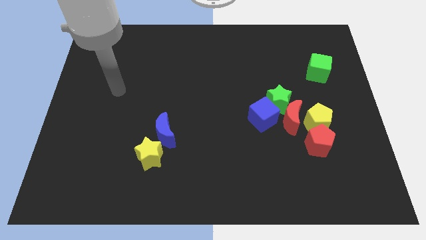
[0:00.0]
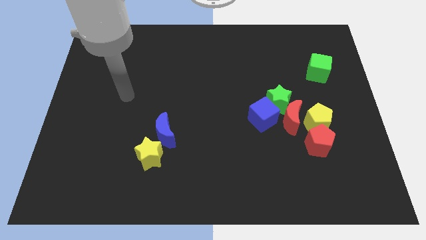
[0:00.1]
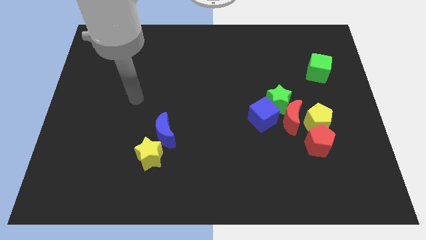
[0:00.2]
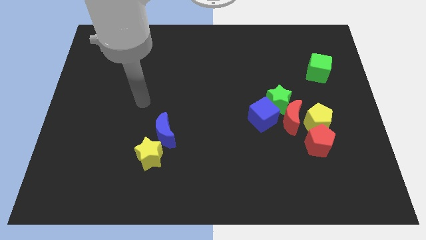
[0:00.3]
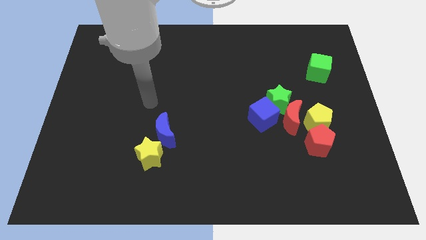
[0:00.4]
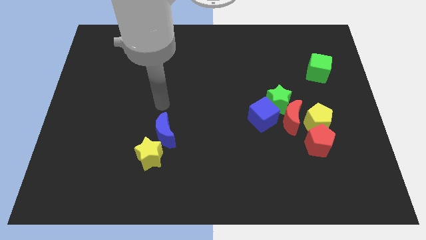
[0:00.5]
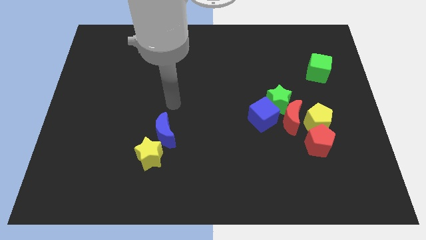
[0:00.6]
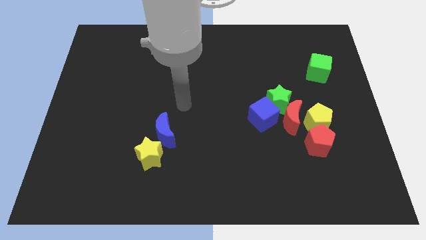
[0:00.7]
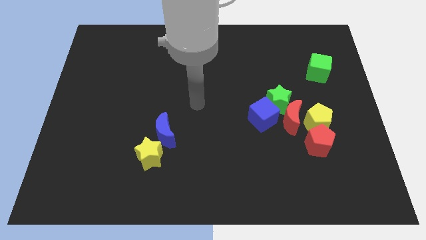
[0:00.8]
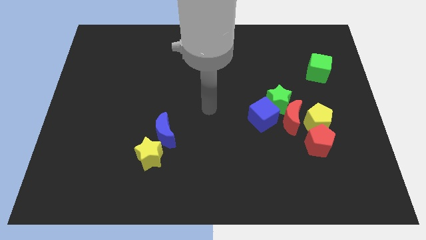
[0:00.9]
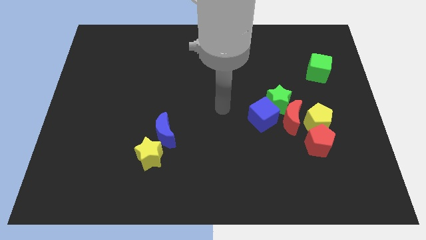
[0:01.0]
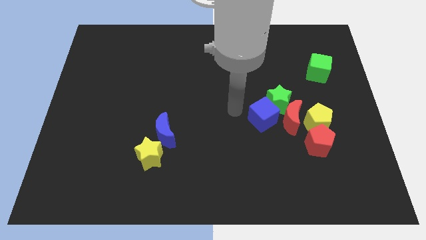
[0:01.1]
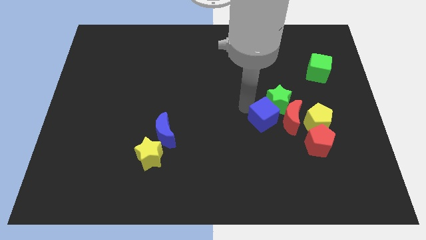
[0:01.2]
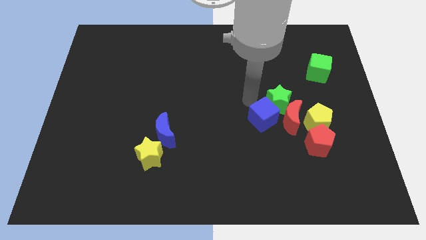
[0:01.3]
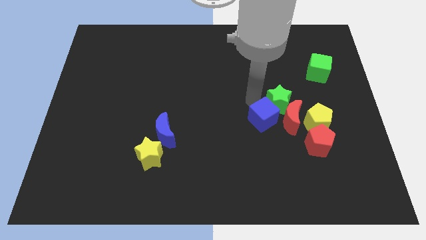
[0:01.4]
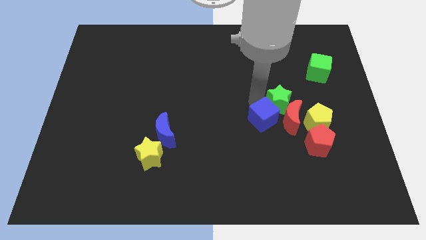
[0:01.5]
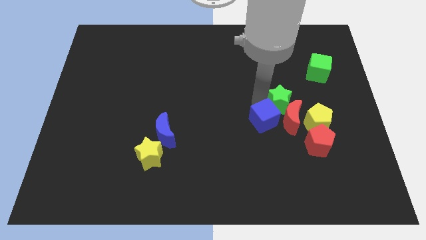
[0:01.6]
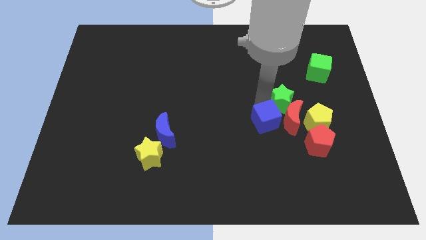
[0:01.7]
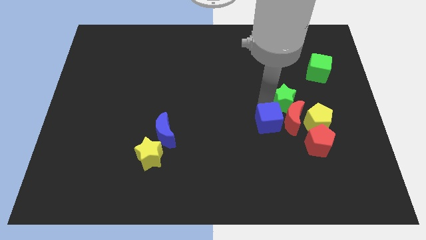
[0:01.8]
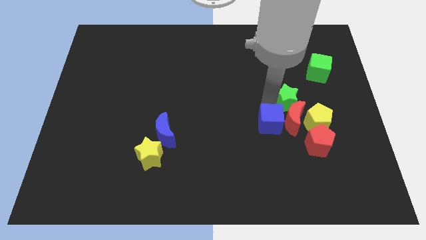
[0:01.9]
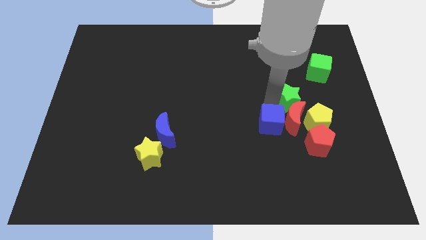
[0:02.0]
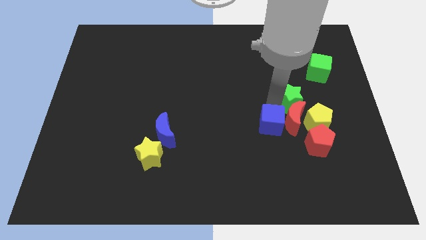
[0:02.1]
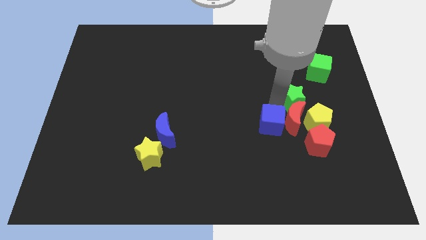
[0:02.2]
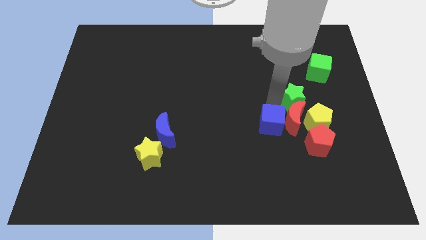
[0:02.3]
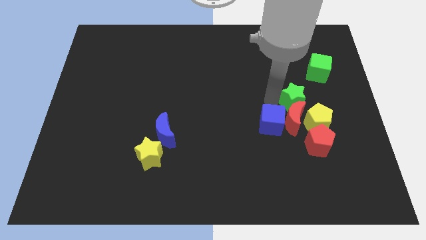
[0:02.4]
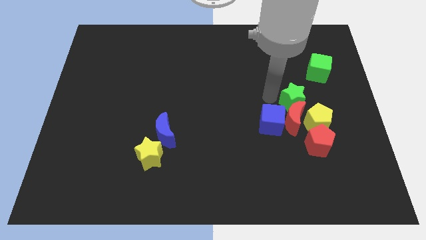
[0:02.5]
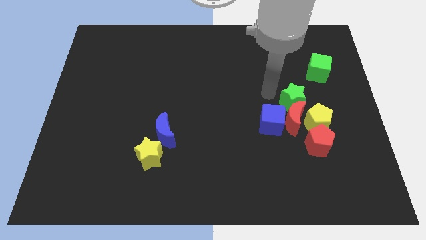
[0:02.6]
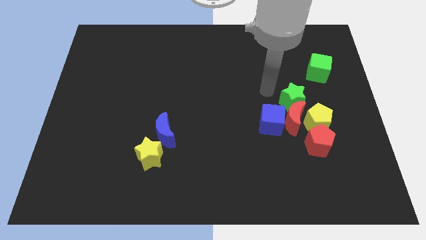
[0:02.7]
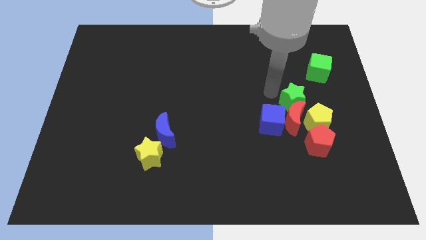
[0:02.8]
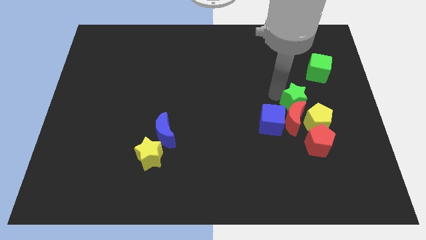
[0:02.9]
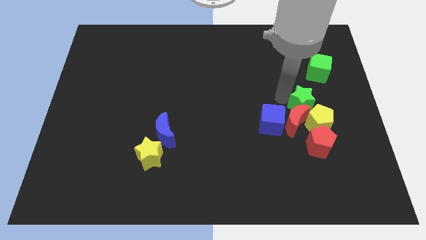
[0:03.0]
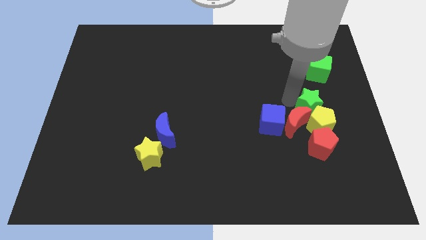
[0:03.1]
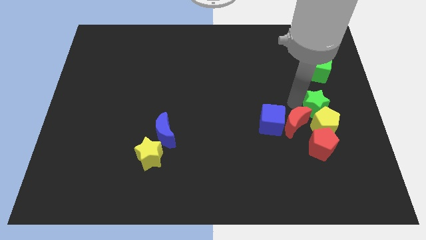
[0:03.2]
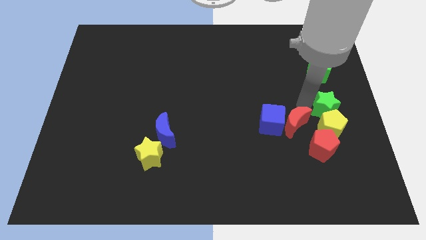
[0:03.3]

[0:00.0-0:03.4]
push the green star diagonally downwards and right slightly

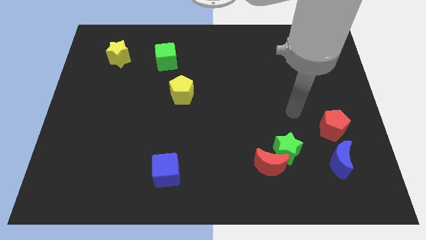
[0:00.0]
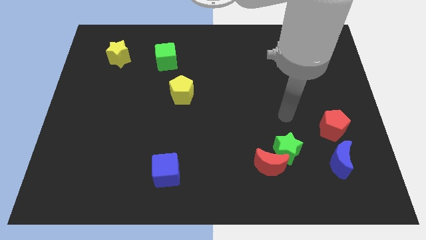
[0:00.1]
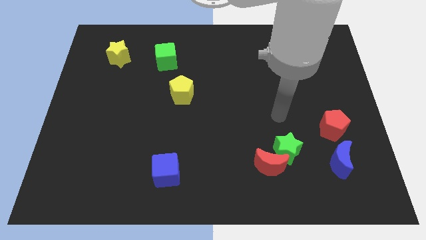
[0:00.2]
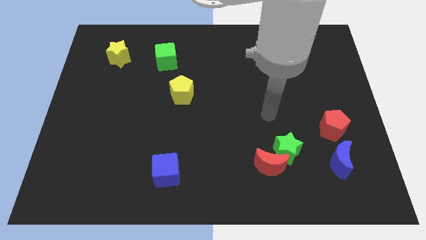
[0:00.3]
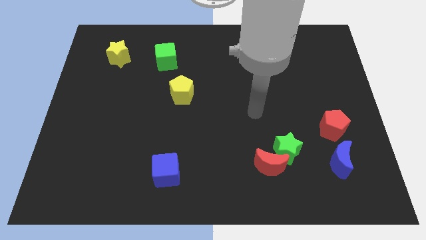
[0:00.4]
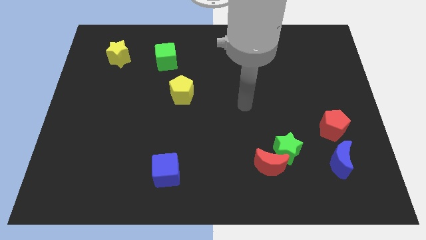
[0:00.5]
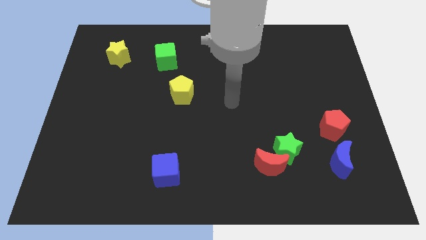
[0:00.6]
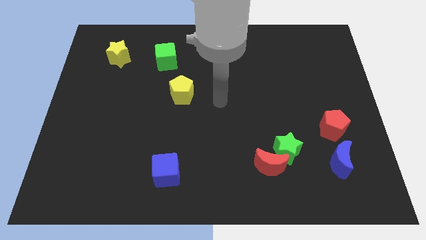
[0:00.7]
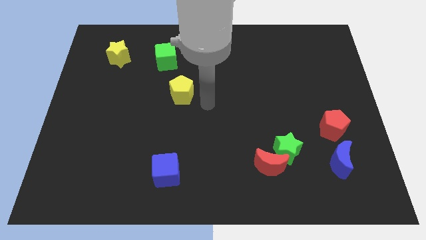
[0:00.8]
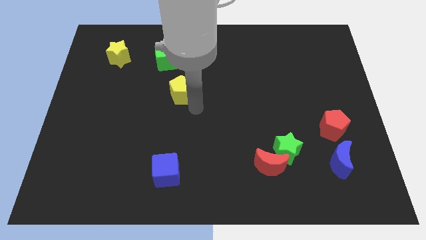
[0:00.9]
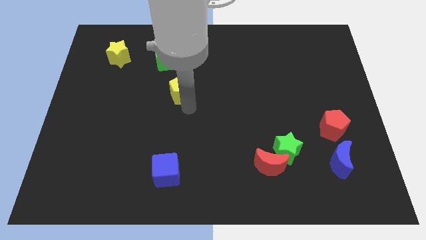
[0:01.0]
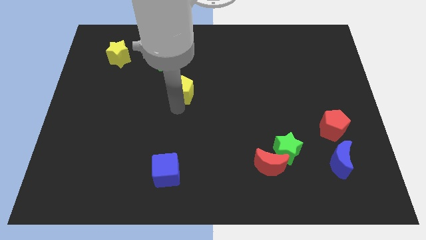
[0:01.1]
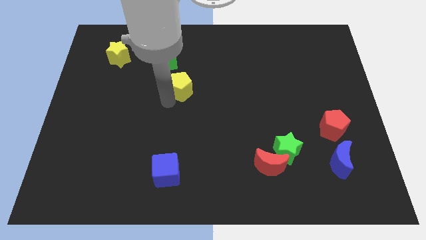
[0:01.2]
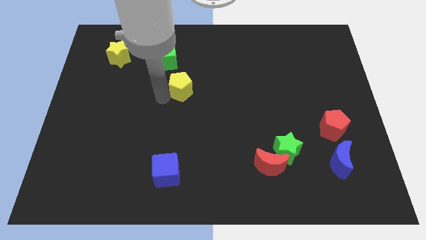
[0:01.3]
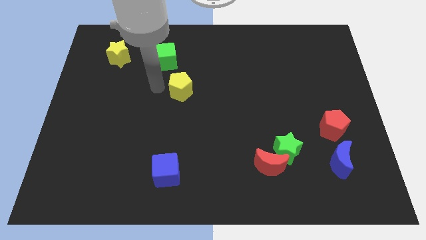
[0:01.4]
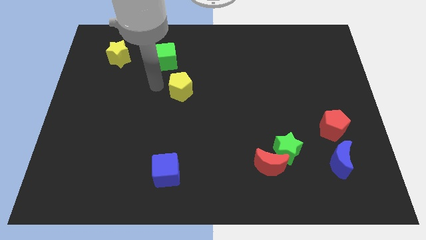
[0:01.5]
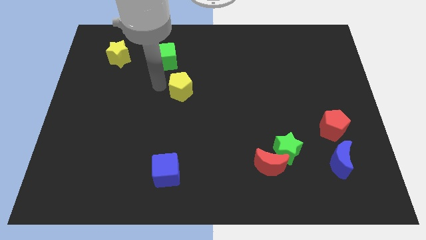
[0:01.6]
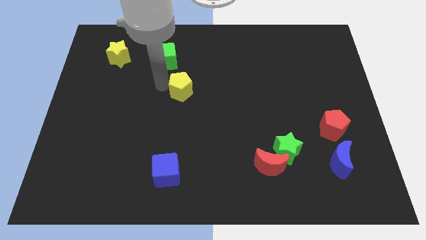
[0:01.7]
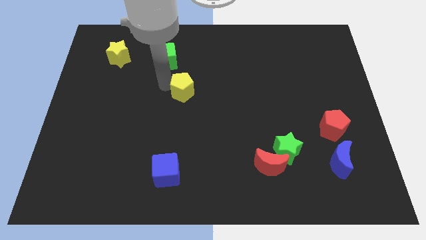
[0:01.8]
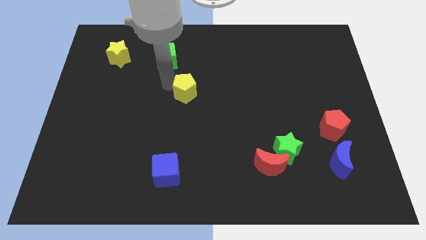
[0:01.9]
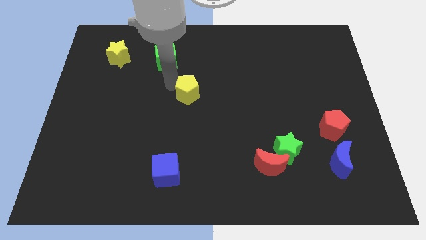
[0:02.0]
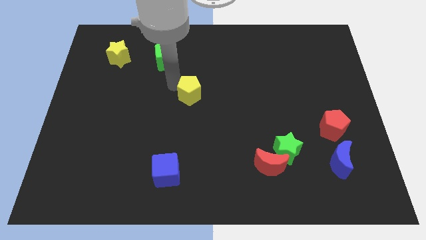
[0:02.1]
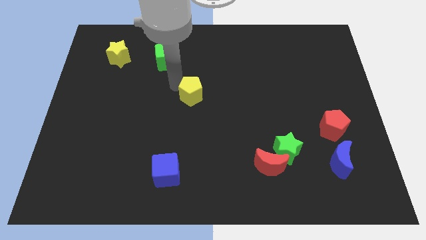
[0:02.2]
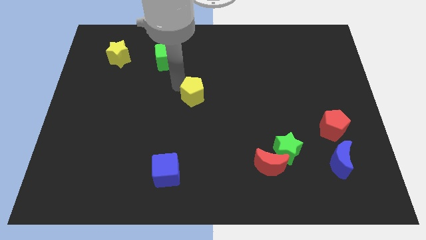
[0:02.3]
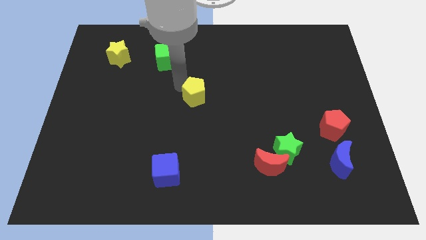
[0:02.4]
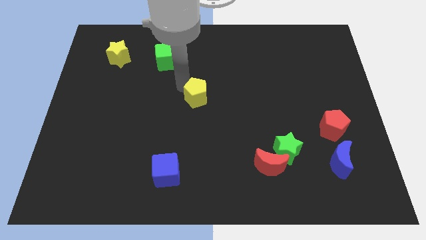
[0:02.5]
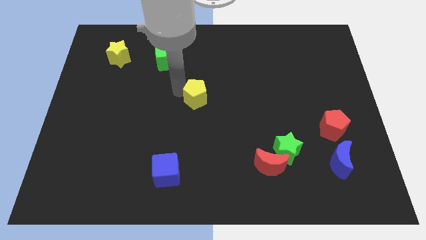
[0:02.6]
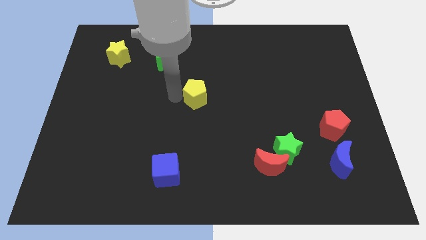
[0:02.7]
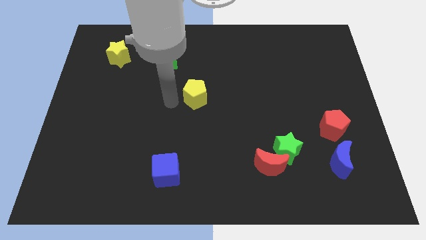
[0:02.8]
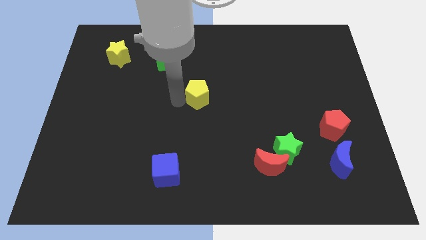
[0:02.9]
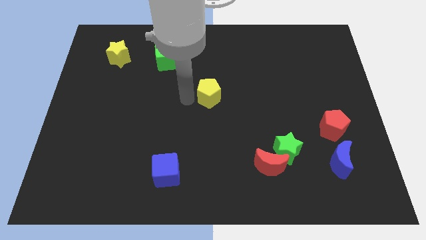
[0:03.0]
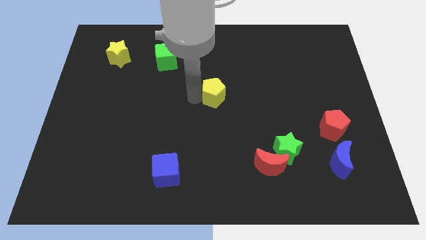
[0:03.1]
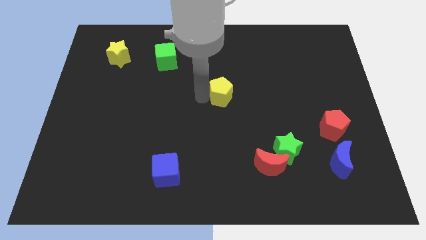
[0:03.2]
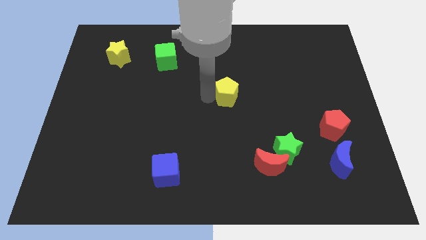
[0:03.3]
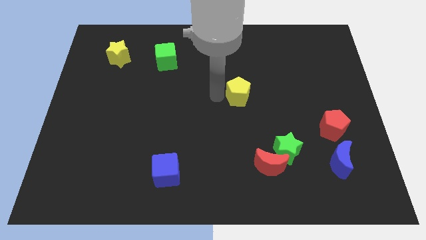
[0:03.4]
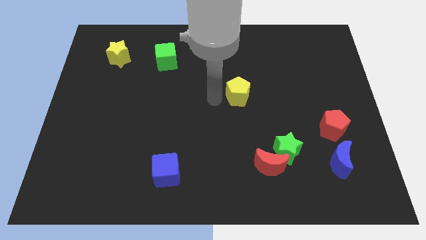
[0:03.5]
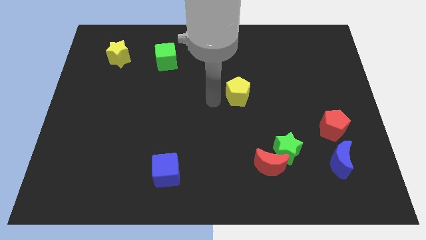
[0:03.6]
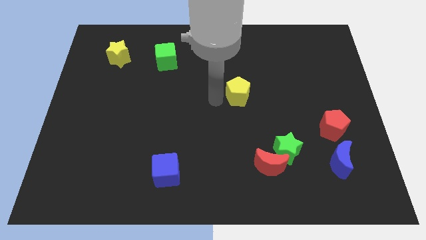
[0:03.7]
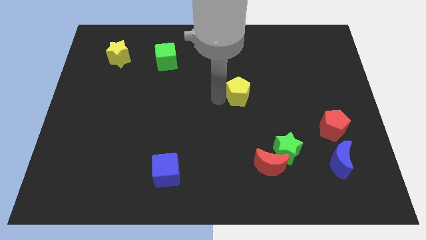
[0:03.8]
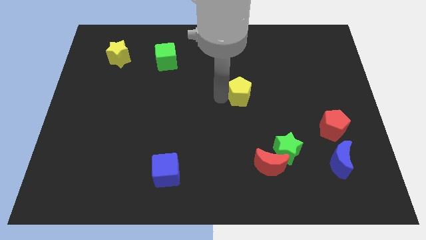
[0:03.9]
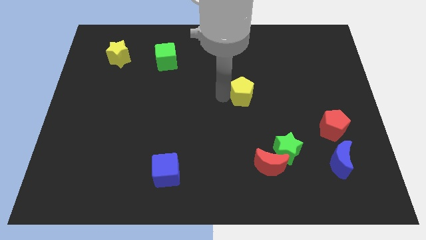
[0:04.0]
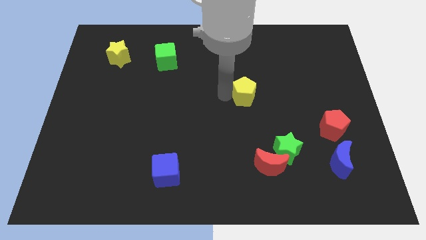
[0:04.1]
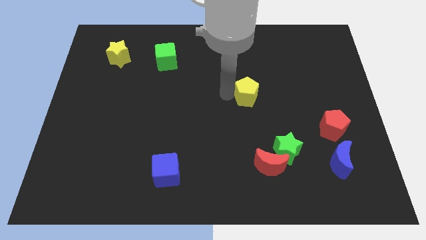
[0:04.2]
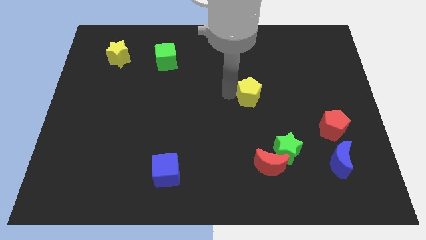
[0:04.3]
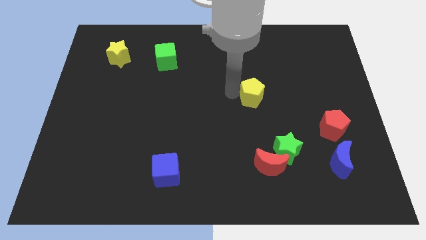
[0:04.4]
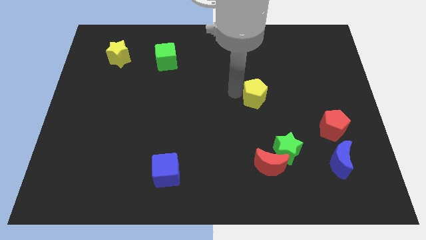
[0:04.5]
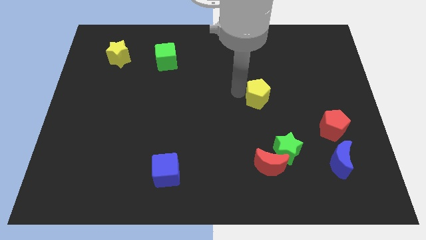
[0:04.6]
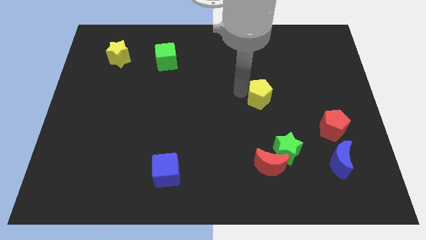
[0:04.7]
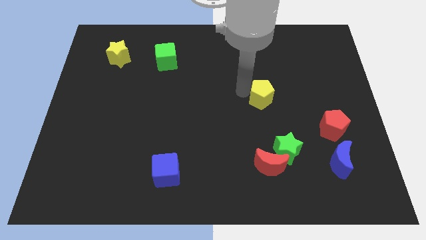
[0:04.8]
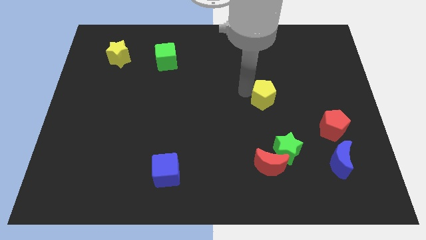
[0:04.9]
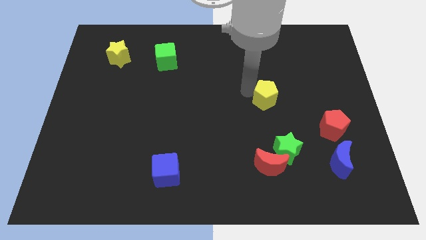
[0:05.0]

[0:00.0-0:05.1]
push the yellow pentagon right

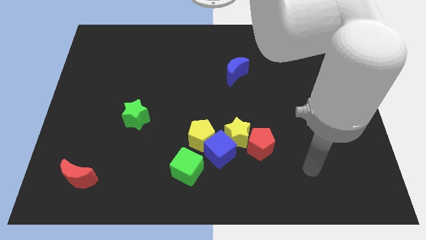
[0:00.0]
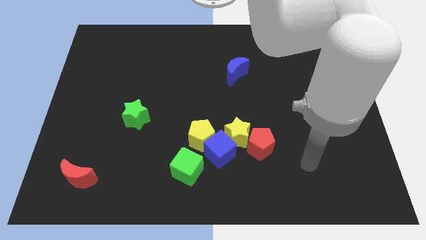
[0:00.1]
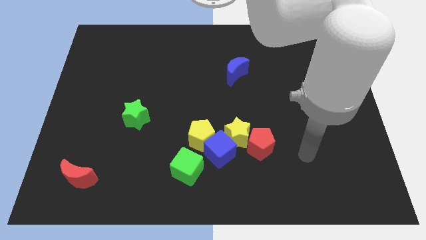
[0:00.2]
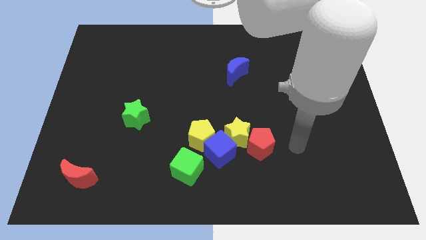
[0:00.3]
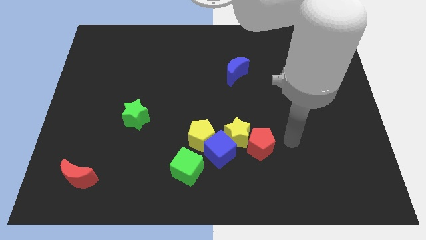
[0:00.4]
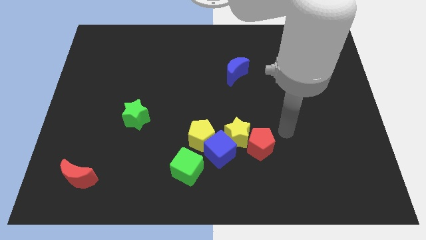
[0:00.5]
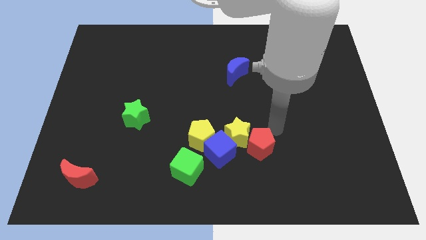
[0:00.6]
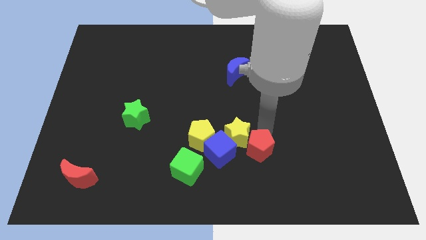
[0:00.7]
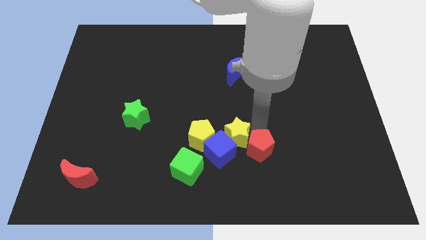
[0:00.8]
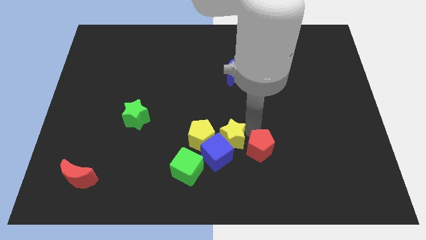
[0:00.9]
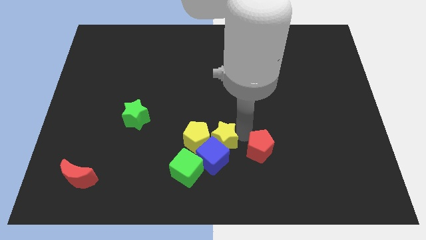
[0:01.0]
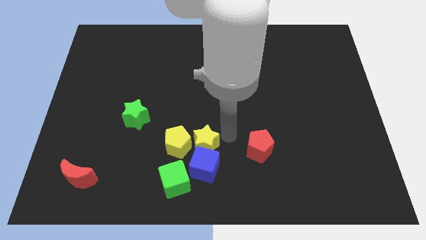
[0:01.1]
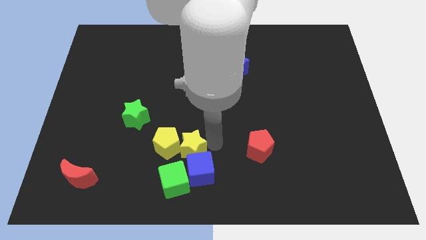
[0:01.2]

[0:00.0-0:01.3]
push the yellow pentagon to the left slightly
